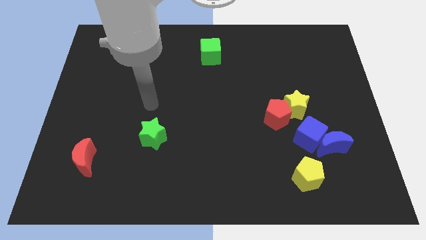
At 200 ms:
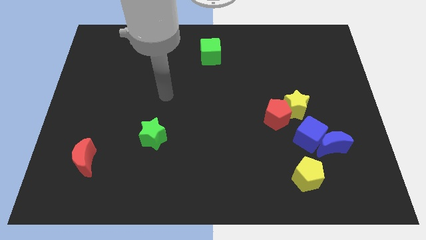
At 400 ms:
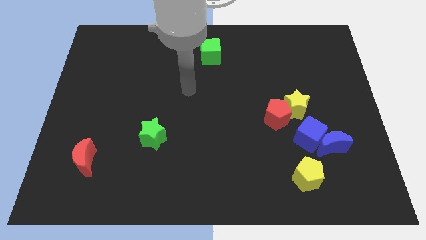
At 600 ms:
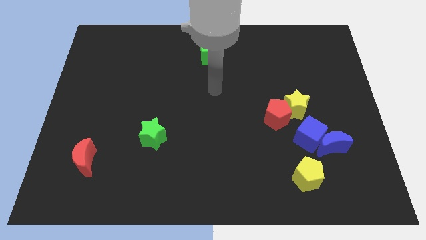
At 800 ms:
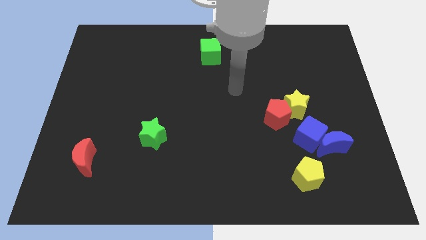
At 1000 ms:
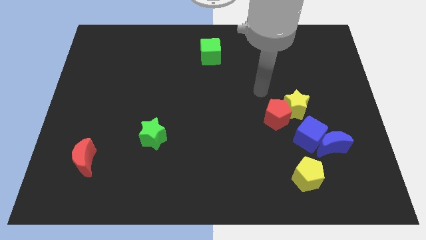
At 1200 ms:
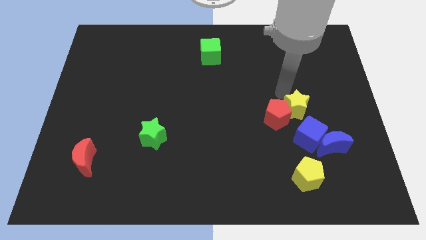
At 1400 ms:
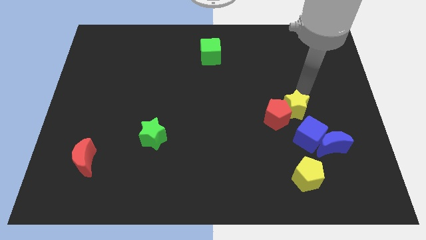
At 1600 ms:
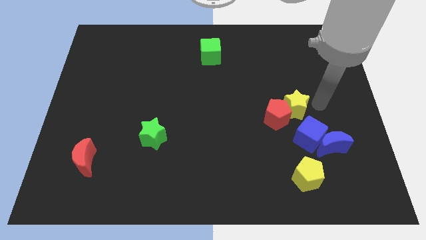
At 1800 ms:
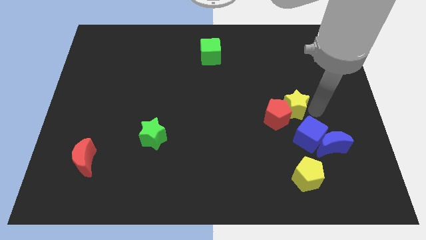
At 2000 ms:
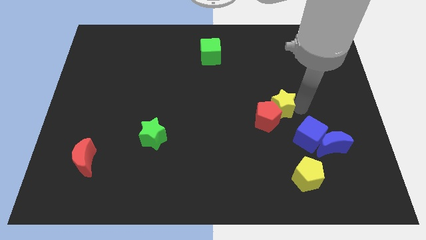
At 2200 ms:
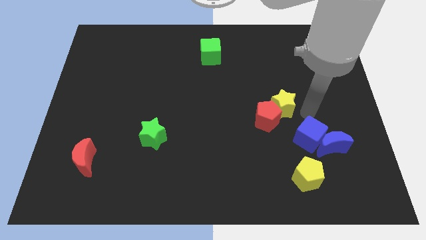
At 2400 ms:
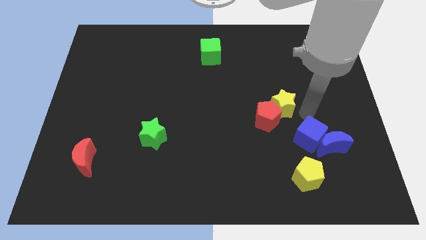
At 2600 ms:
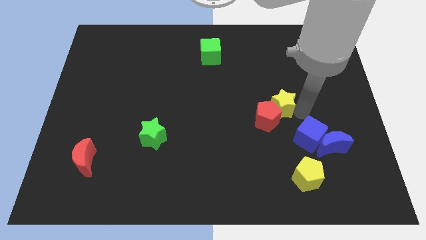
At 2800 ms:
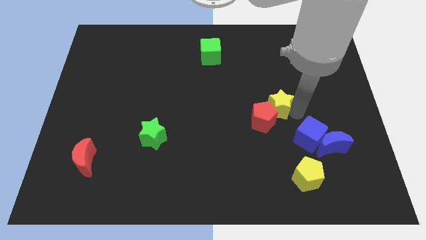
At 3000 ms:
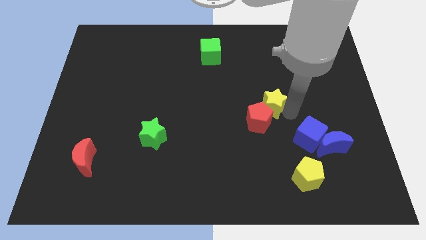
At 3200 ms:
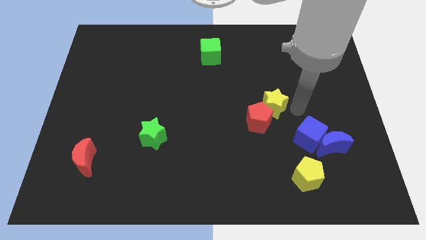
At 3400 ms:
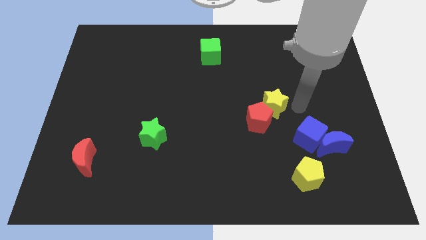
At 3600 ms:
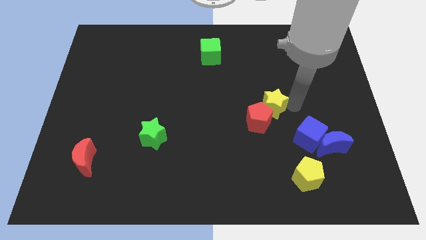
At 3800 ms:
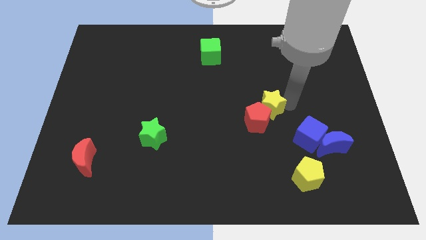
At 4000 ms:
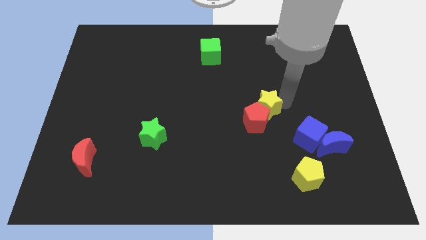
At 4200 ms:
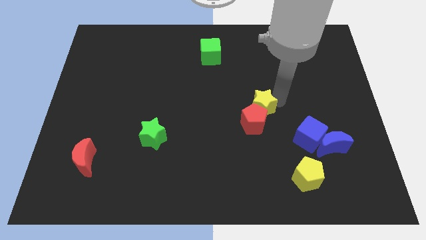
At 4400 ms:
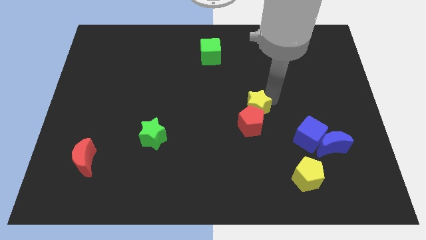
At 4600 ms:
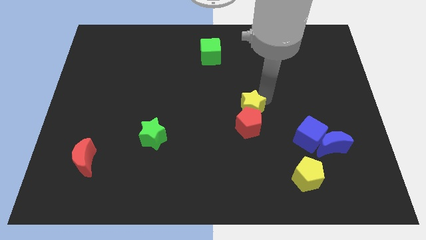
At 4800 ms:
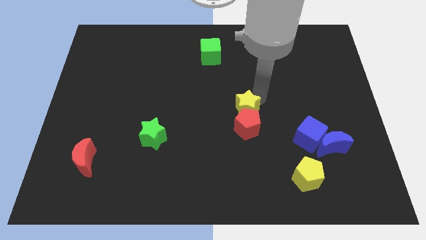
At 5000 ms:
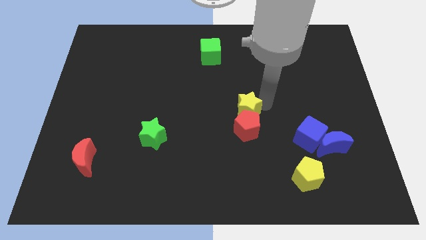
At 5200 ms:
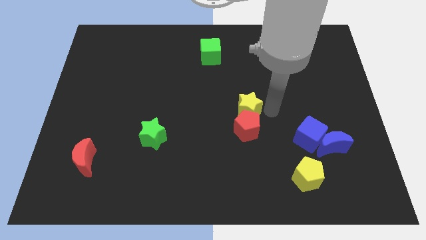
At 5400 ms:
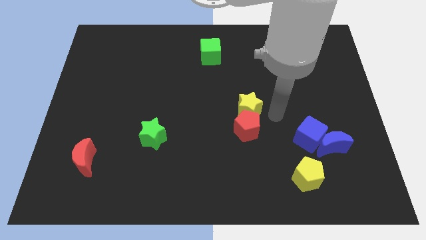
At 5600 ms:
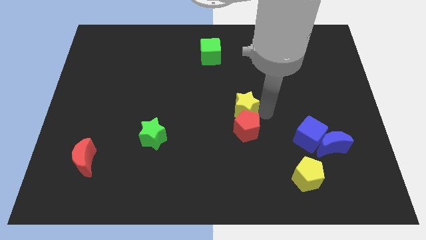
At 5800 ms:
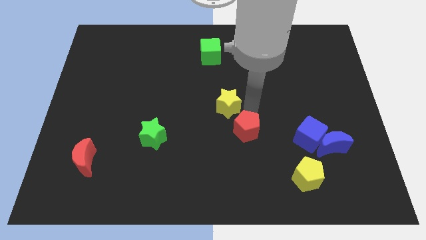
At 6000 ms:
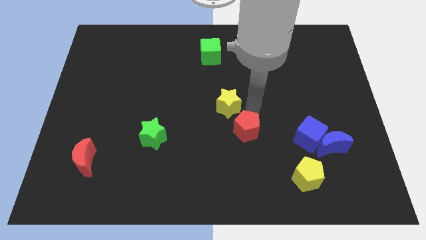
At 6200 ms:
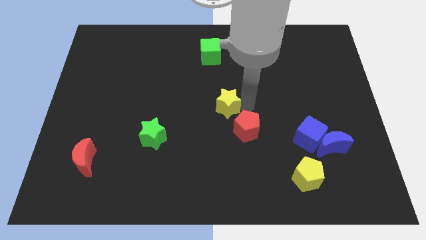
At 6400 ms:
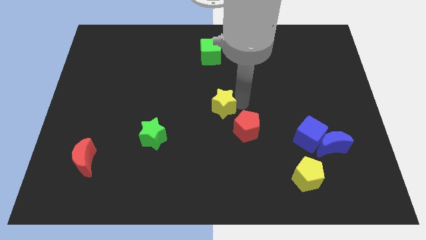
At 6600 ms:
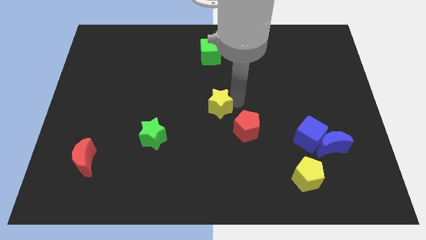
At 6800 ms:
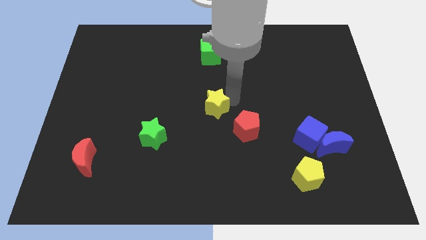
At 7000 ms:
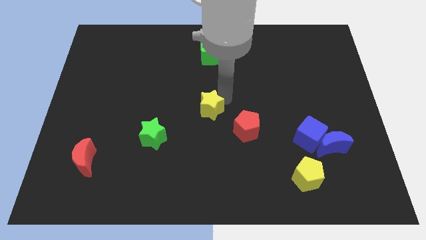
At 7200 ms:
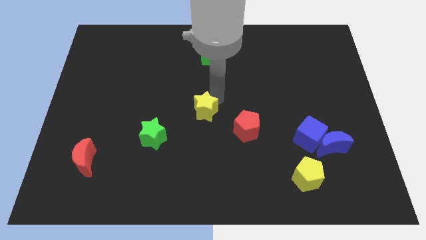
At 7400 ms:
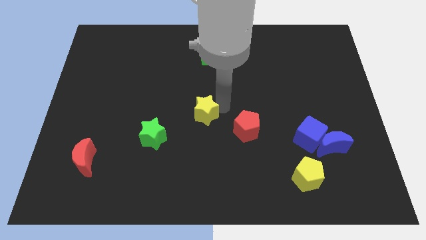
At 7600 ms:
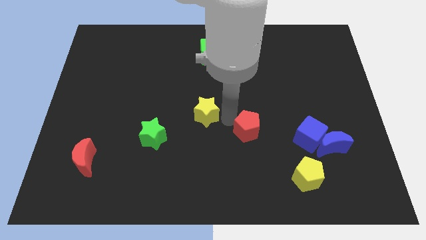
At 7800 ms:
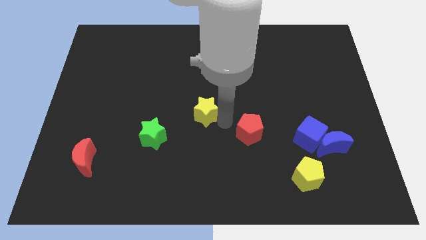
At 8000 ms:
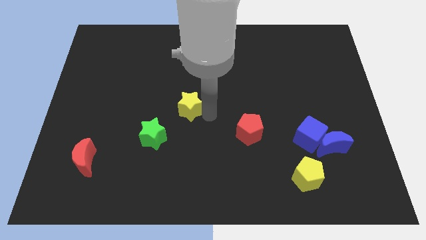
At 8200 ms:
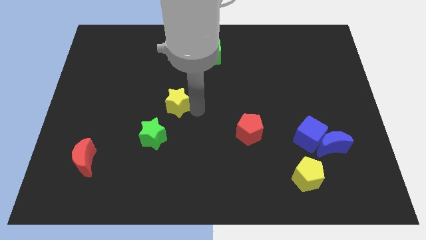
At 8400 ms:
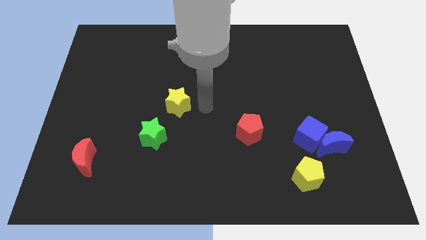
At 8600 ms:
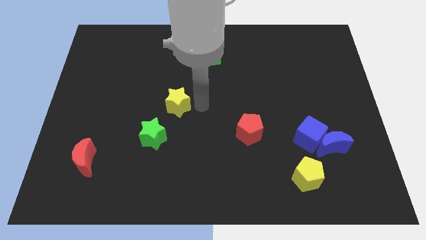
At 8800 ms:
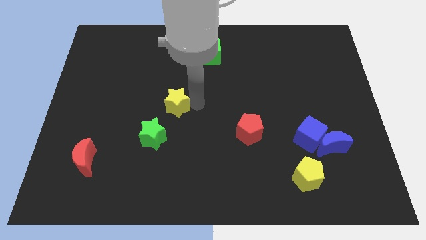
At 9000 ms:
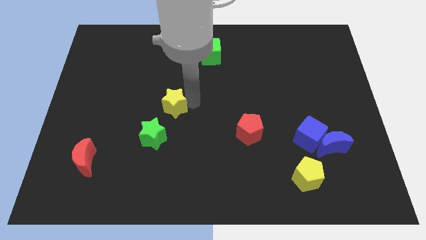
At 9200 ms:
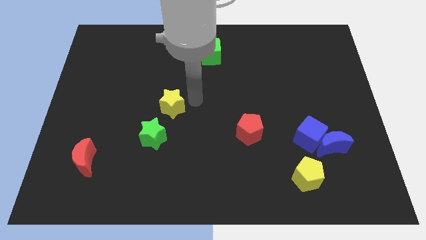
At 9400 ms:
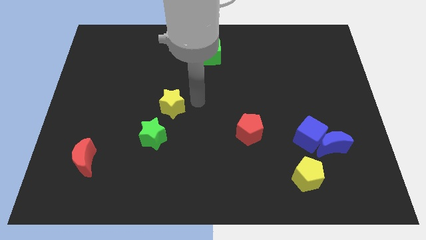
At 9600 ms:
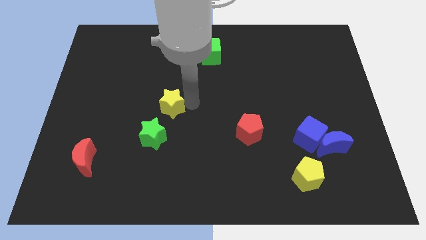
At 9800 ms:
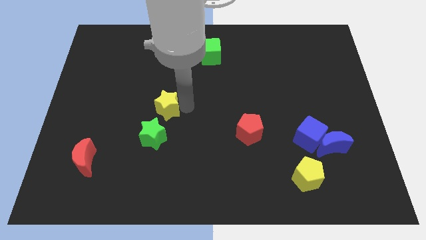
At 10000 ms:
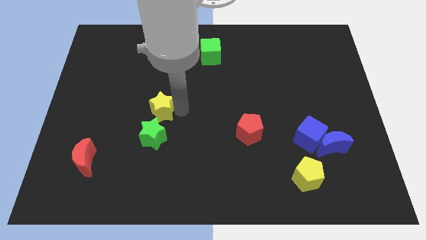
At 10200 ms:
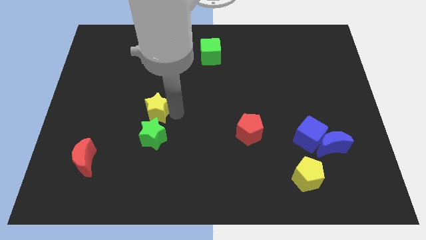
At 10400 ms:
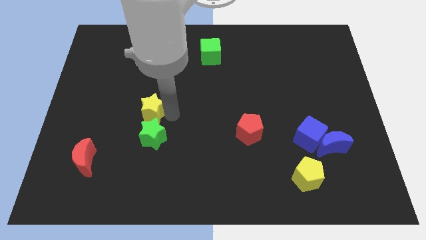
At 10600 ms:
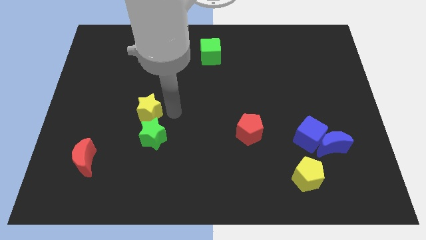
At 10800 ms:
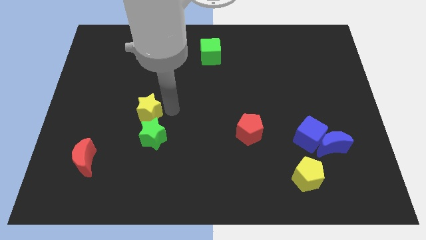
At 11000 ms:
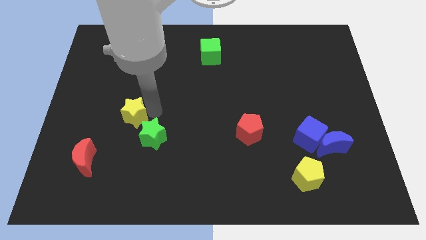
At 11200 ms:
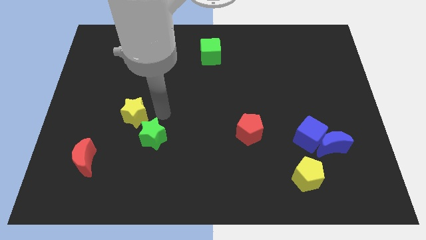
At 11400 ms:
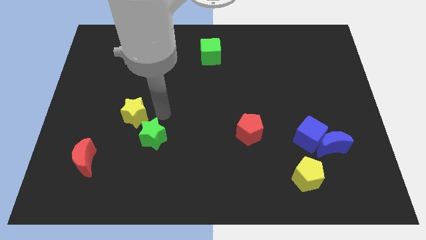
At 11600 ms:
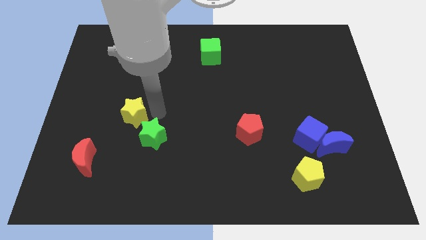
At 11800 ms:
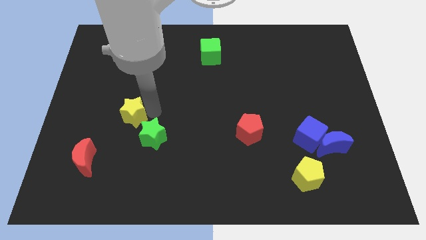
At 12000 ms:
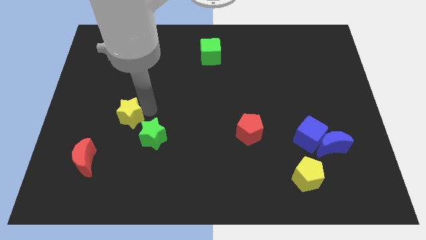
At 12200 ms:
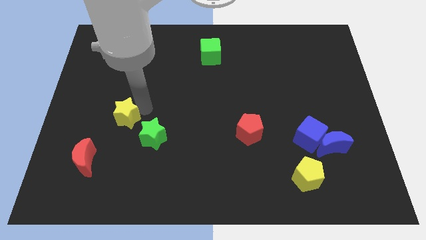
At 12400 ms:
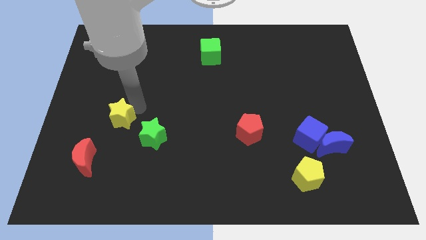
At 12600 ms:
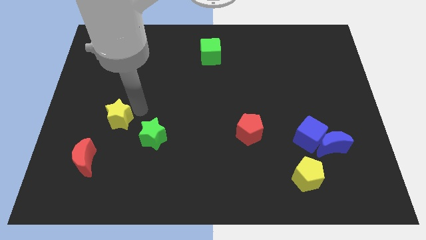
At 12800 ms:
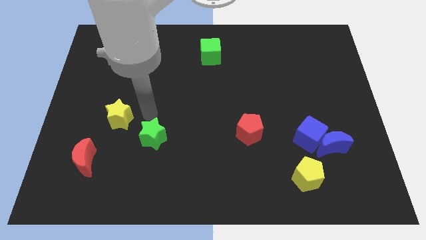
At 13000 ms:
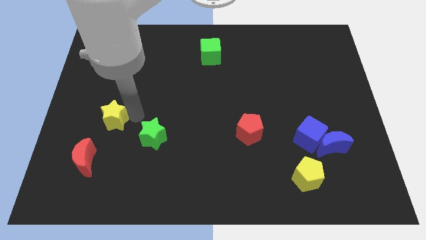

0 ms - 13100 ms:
put the yellow star to the top side of the red moon
